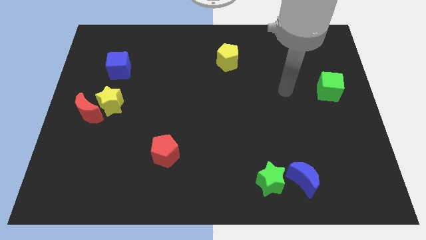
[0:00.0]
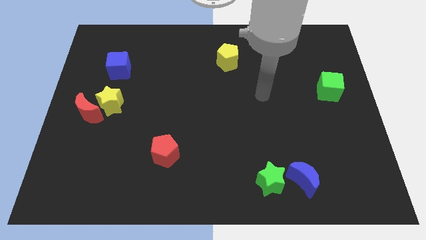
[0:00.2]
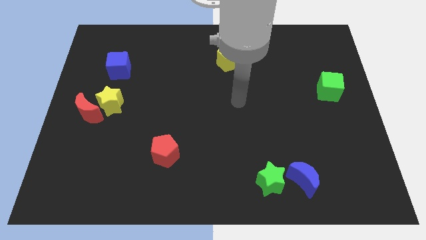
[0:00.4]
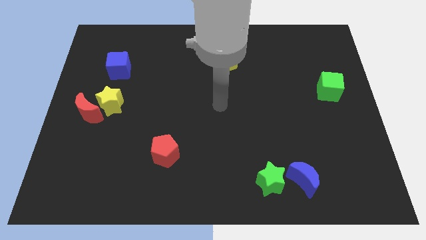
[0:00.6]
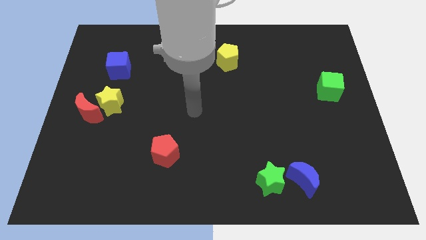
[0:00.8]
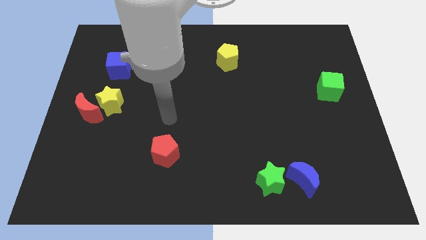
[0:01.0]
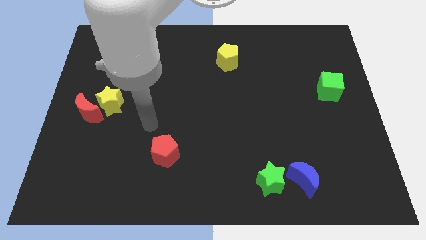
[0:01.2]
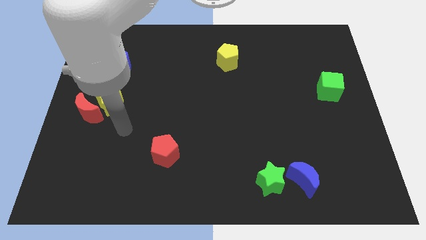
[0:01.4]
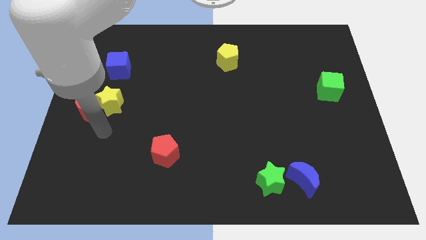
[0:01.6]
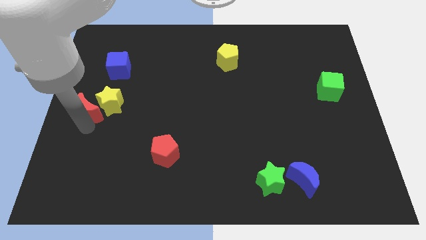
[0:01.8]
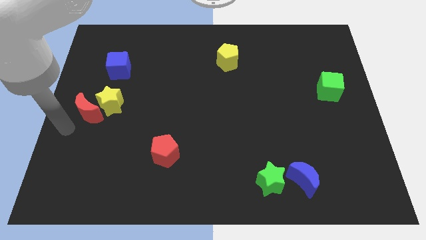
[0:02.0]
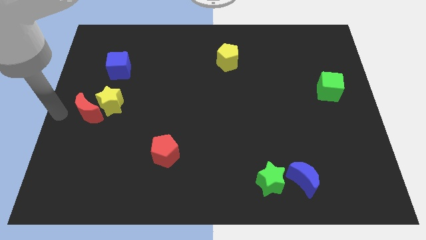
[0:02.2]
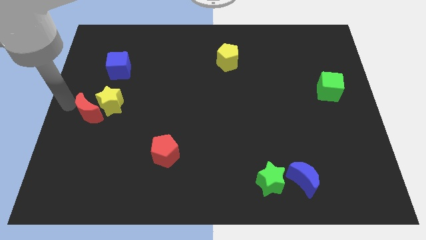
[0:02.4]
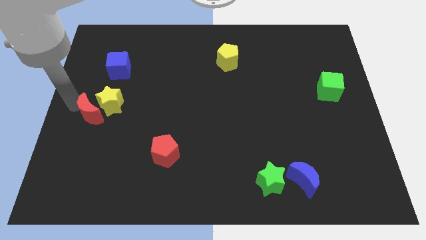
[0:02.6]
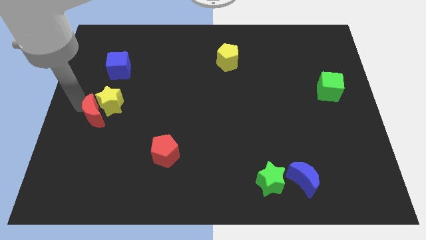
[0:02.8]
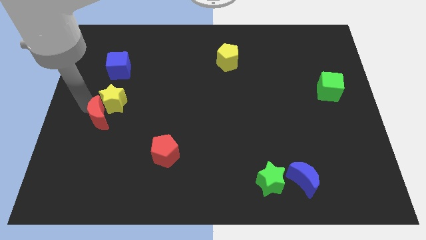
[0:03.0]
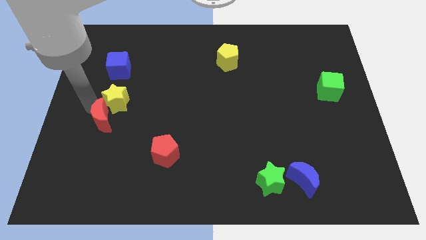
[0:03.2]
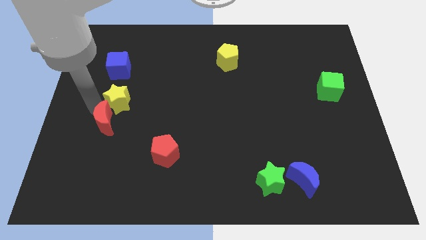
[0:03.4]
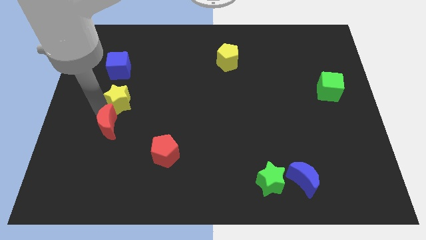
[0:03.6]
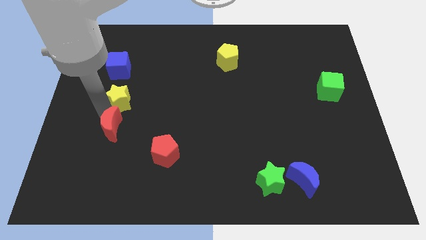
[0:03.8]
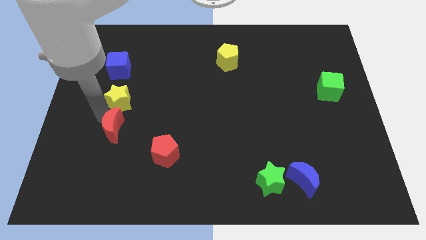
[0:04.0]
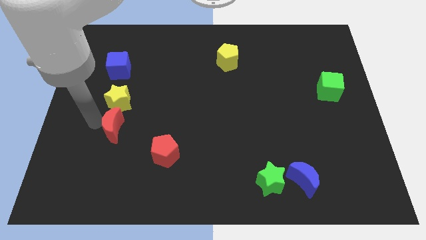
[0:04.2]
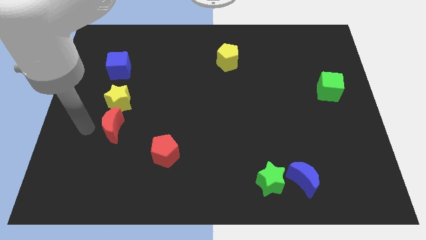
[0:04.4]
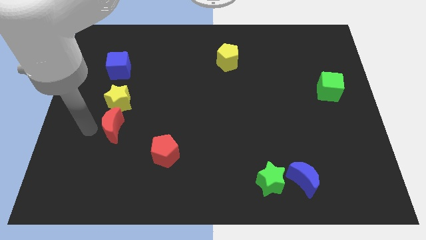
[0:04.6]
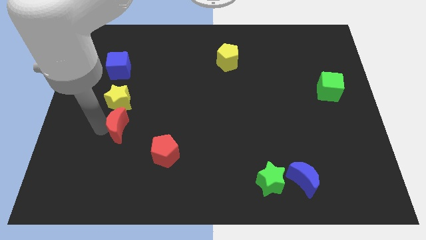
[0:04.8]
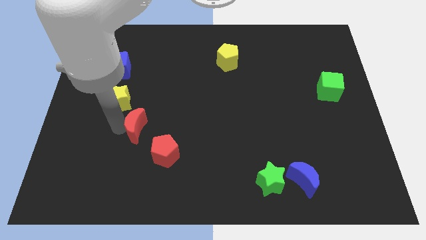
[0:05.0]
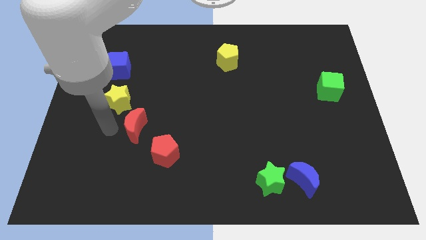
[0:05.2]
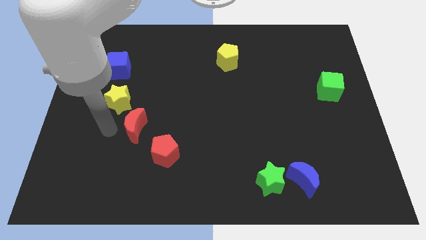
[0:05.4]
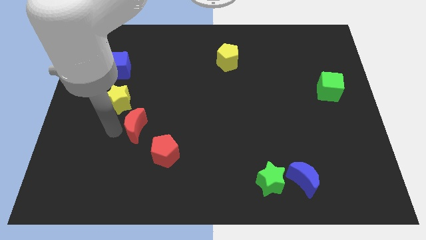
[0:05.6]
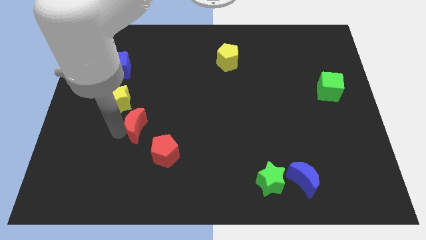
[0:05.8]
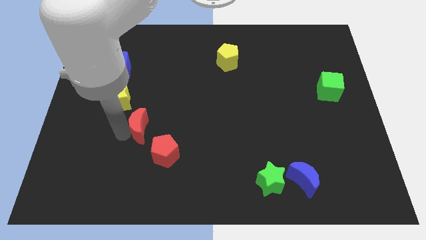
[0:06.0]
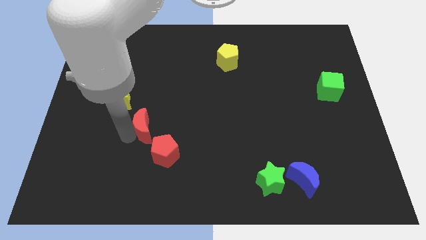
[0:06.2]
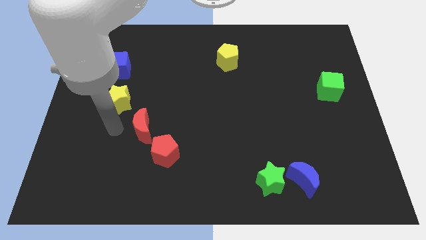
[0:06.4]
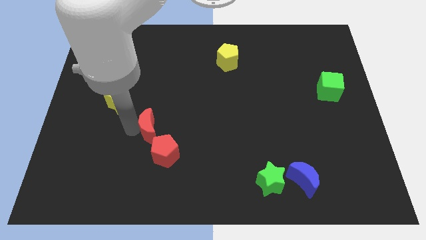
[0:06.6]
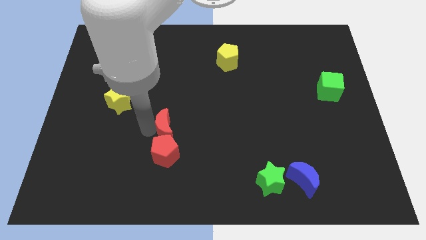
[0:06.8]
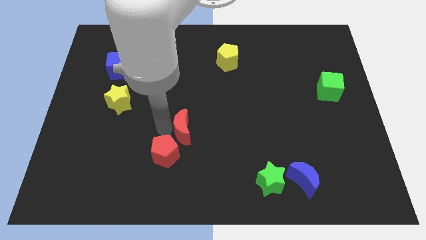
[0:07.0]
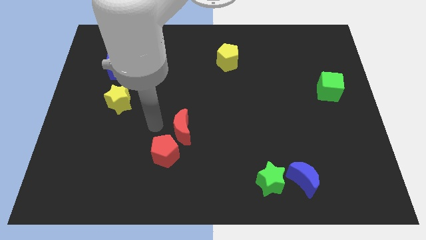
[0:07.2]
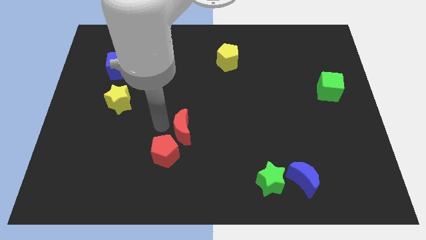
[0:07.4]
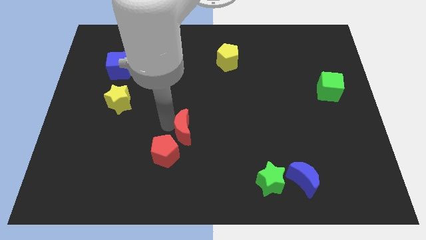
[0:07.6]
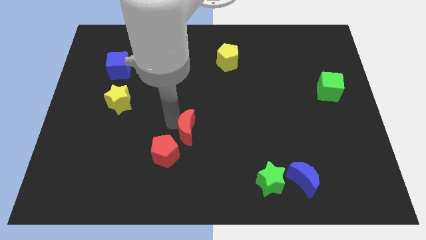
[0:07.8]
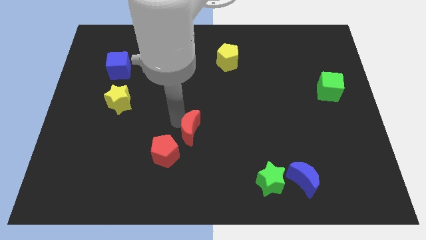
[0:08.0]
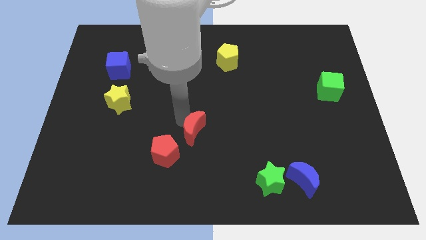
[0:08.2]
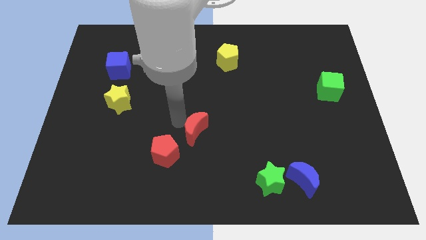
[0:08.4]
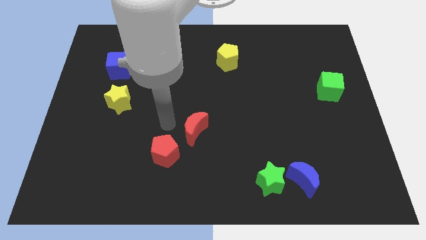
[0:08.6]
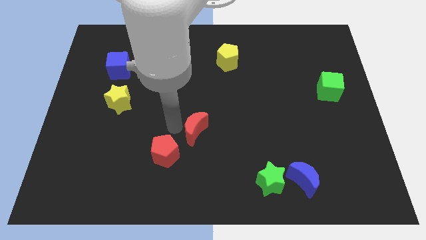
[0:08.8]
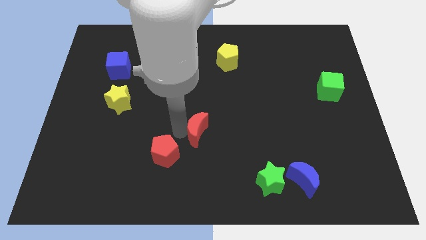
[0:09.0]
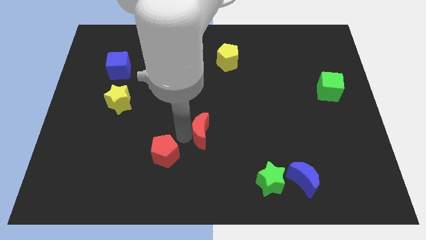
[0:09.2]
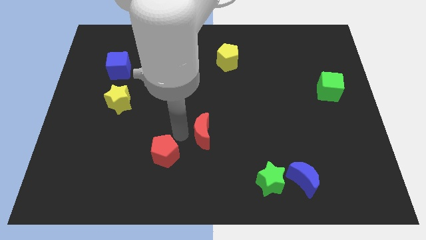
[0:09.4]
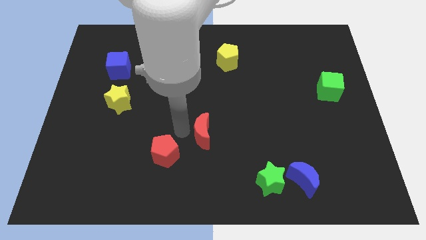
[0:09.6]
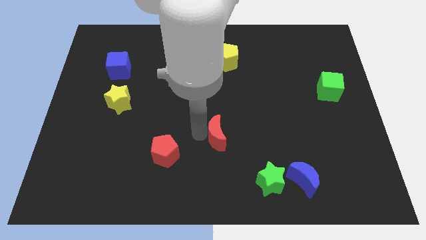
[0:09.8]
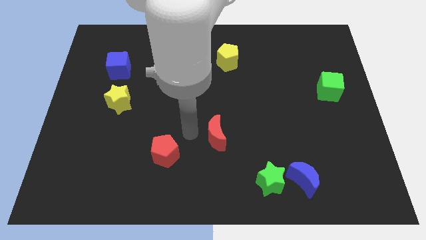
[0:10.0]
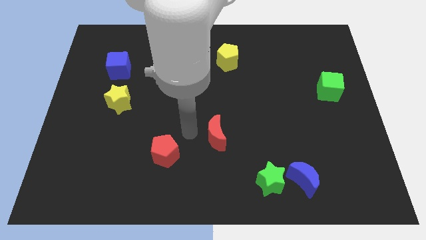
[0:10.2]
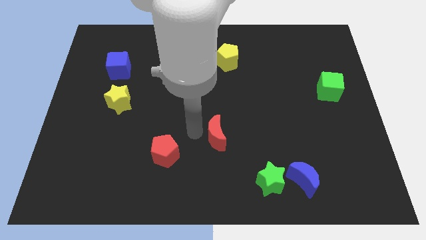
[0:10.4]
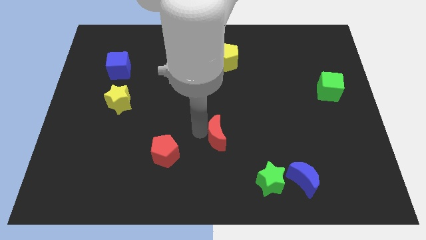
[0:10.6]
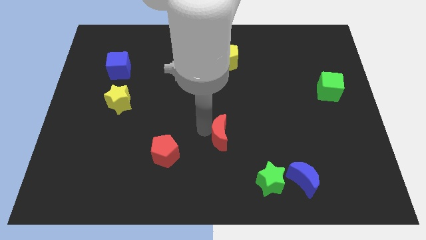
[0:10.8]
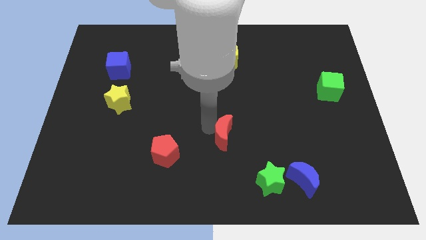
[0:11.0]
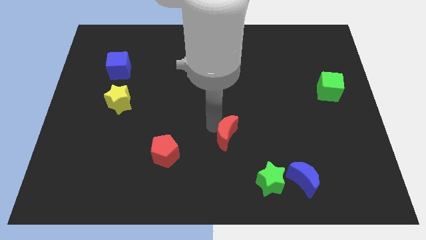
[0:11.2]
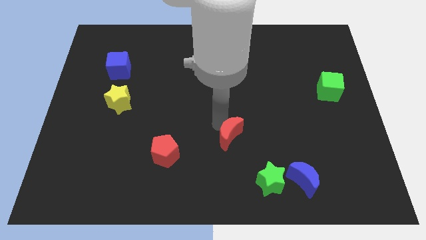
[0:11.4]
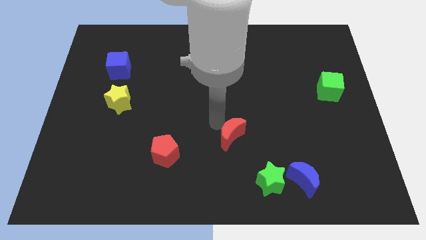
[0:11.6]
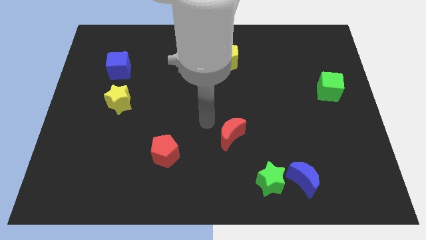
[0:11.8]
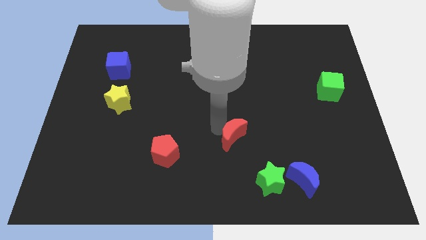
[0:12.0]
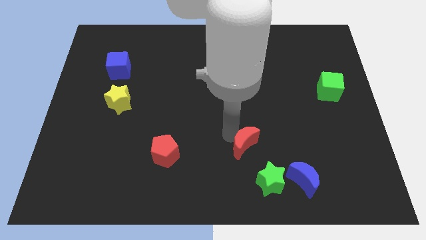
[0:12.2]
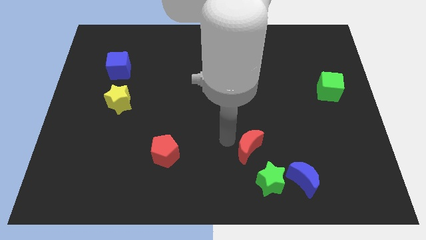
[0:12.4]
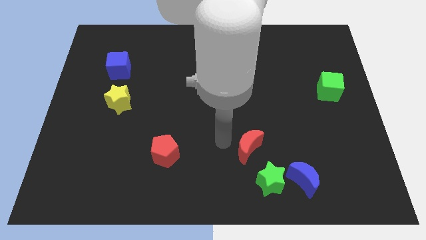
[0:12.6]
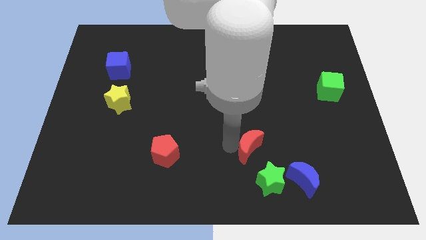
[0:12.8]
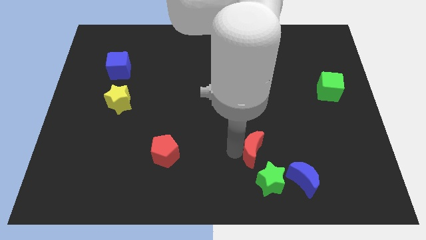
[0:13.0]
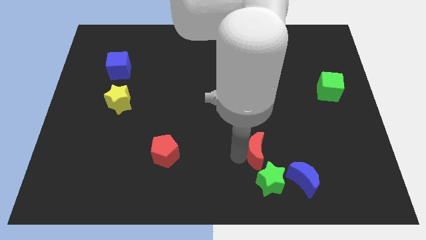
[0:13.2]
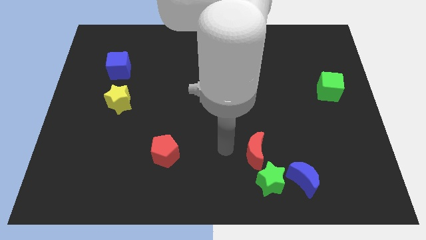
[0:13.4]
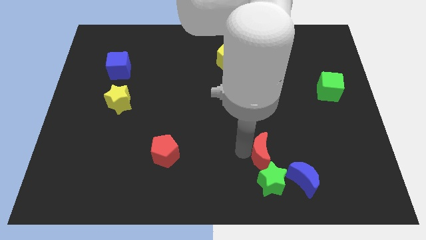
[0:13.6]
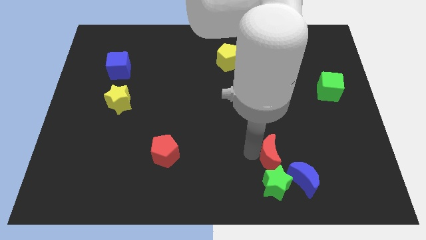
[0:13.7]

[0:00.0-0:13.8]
move the red moon diagonally up and to the right of the green star
